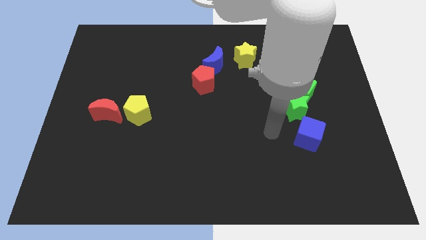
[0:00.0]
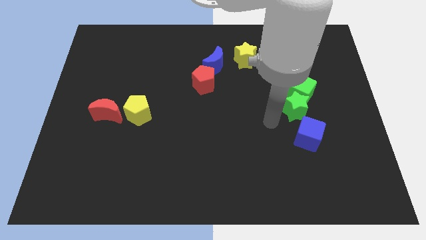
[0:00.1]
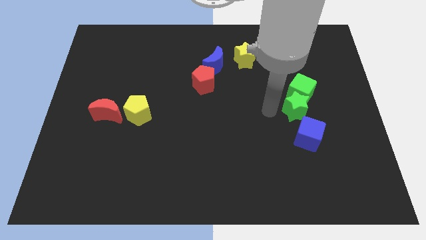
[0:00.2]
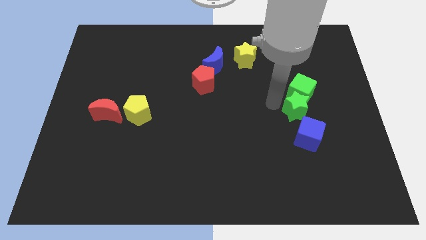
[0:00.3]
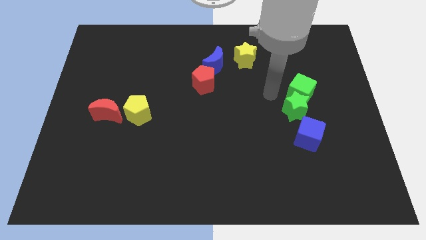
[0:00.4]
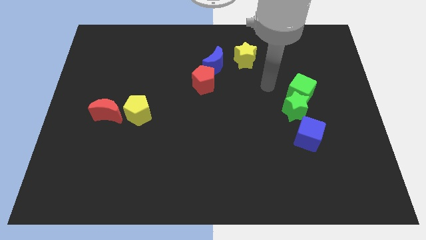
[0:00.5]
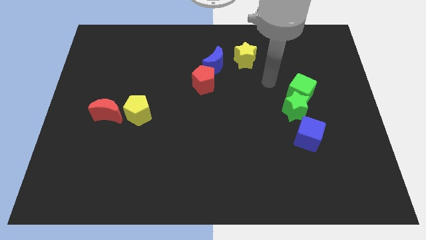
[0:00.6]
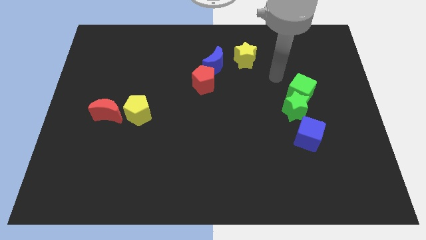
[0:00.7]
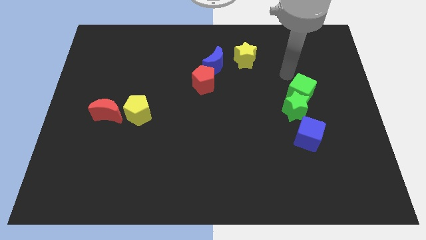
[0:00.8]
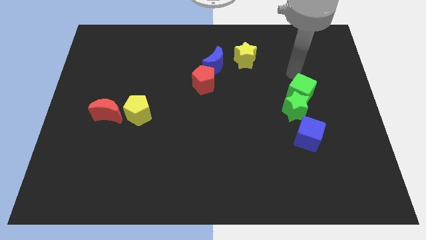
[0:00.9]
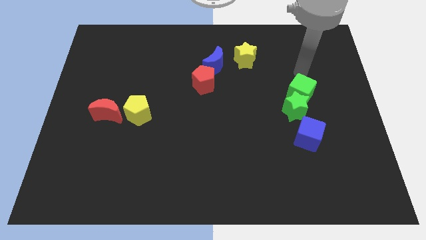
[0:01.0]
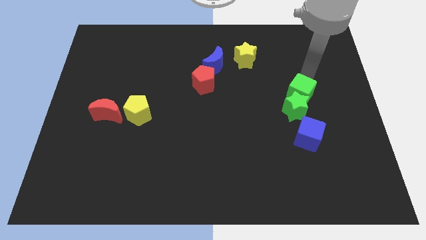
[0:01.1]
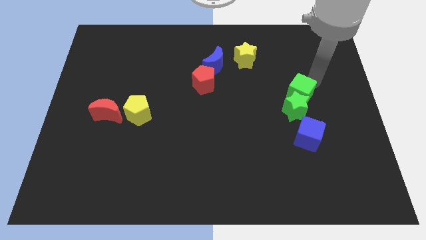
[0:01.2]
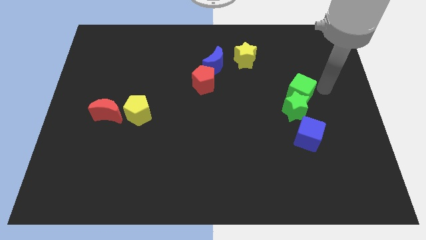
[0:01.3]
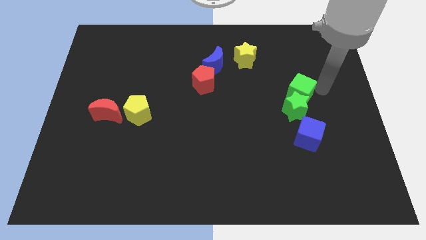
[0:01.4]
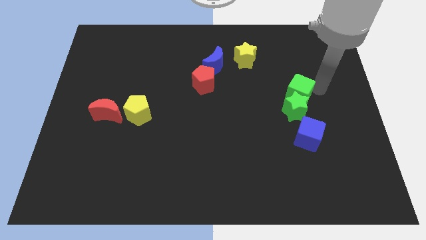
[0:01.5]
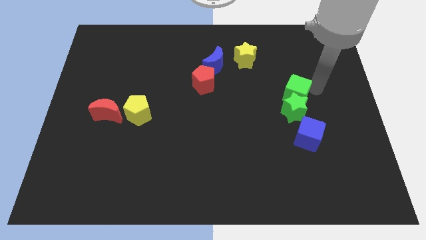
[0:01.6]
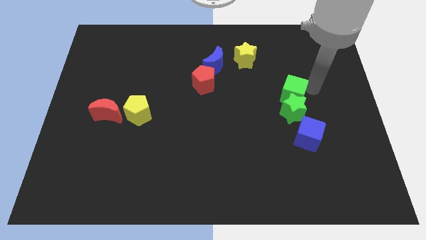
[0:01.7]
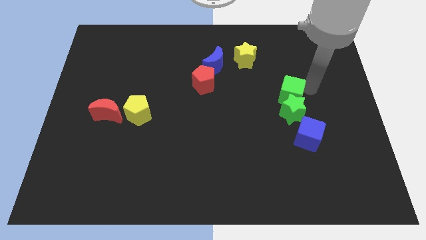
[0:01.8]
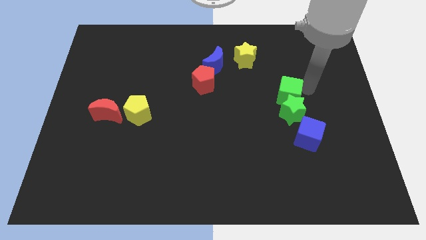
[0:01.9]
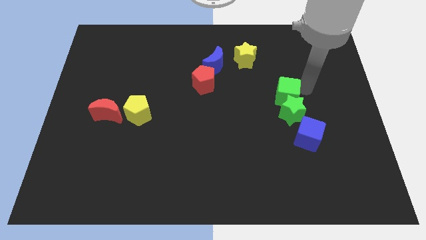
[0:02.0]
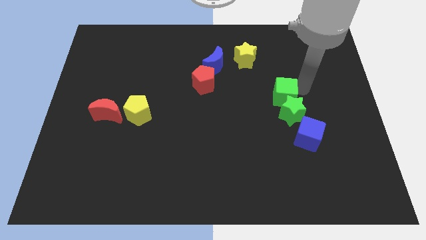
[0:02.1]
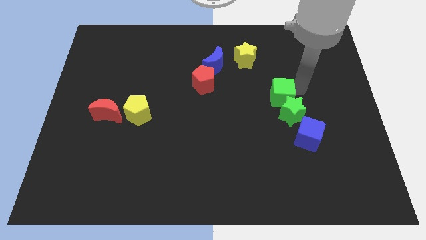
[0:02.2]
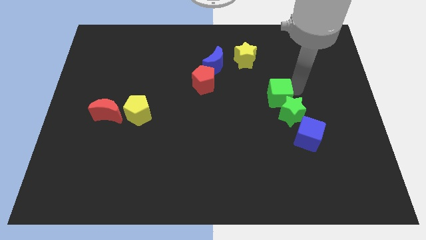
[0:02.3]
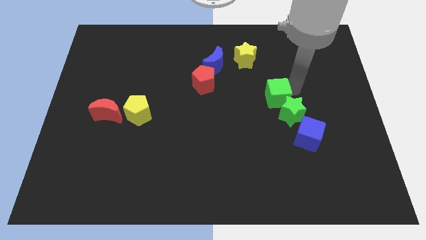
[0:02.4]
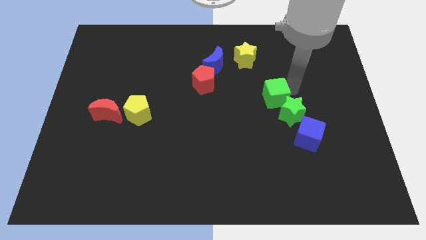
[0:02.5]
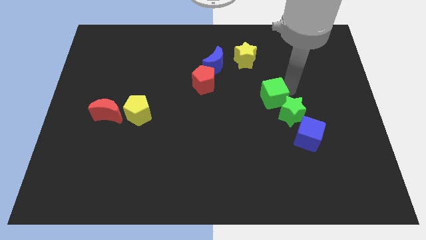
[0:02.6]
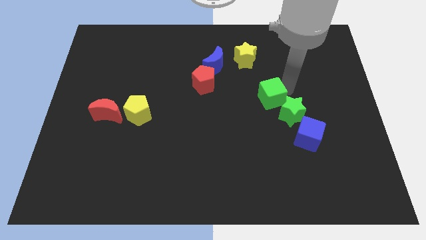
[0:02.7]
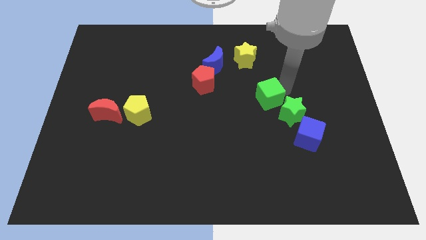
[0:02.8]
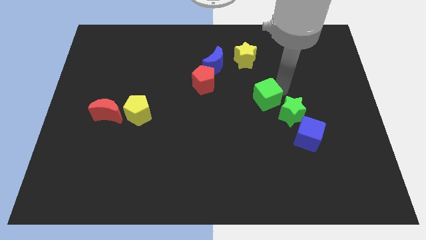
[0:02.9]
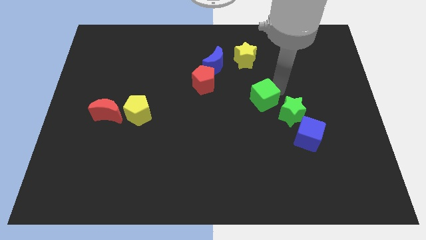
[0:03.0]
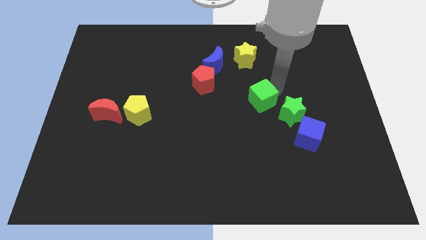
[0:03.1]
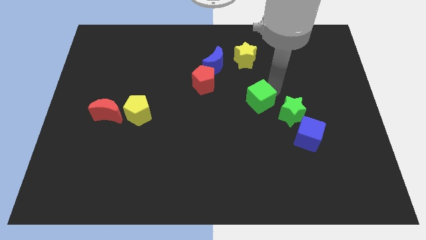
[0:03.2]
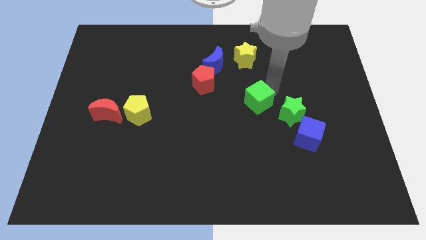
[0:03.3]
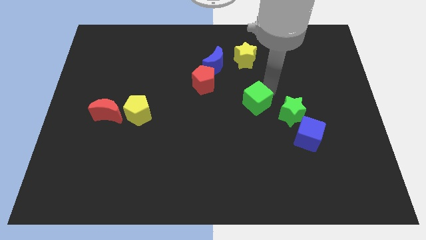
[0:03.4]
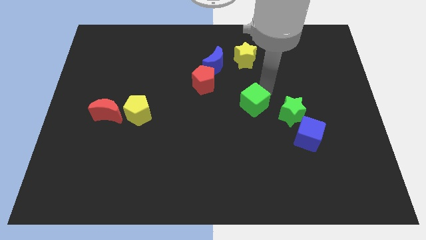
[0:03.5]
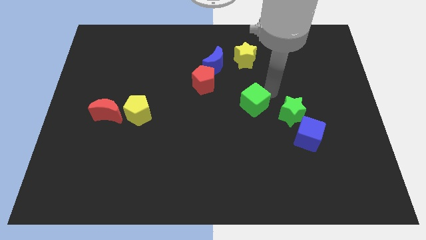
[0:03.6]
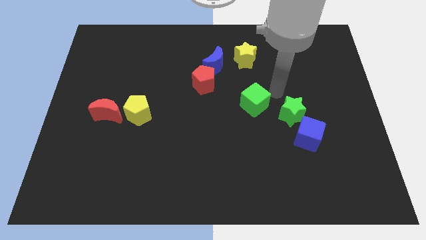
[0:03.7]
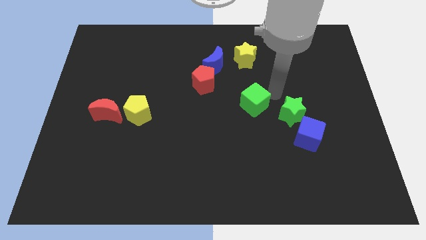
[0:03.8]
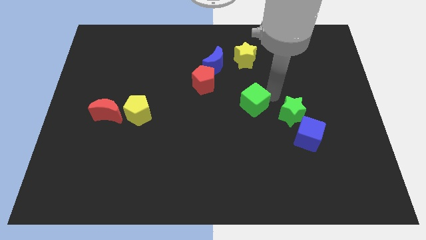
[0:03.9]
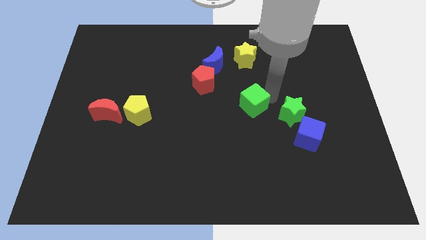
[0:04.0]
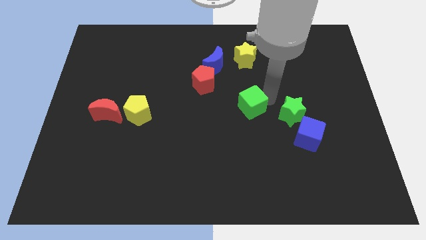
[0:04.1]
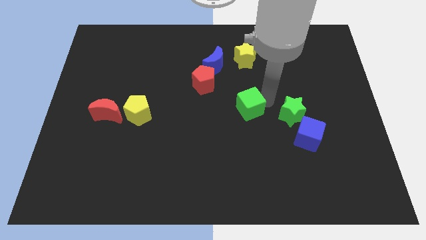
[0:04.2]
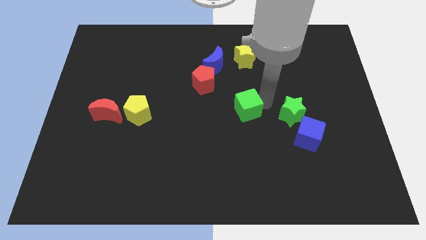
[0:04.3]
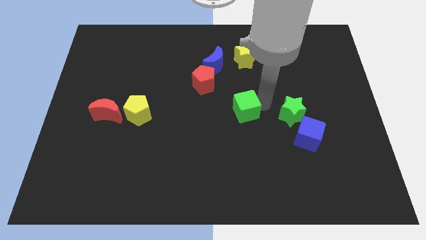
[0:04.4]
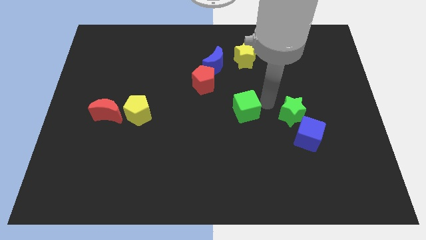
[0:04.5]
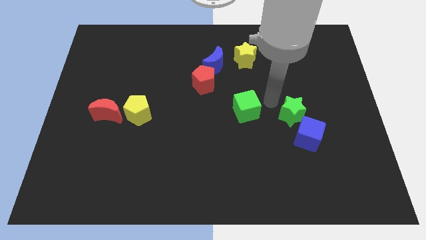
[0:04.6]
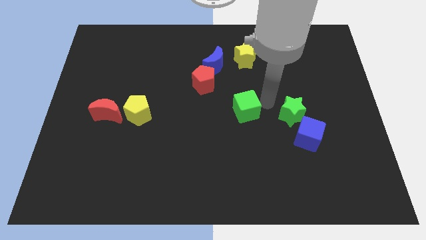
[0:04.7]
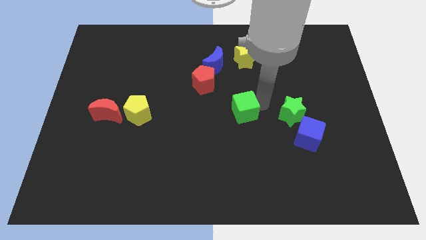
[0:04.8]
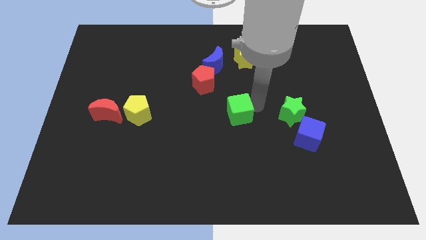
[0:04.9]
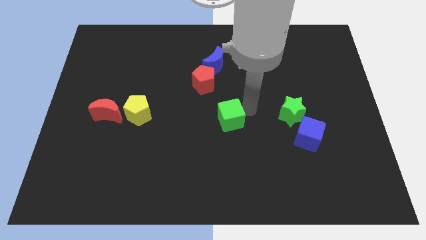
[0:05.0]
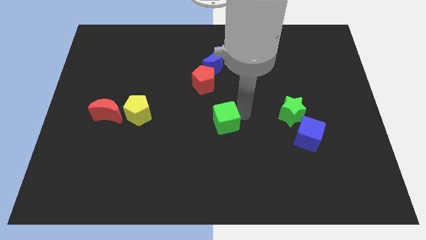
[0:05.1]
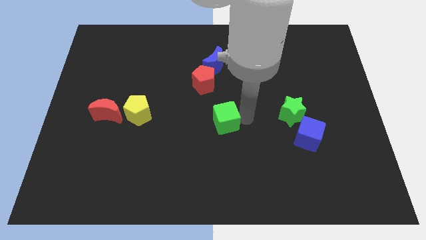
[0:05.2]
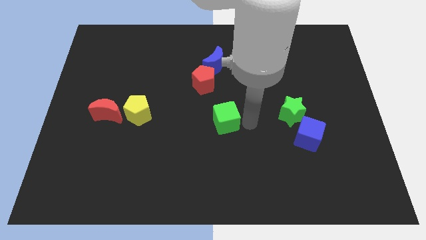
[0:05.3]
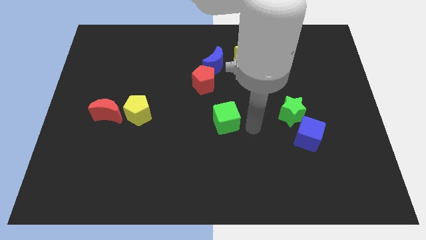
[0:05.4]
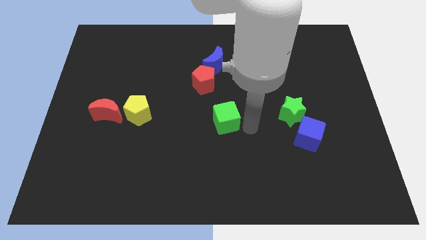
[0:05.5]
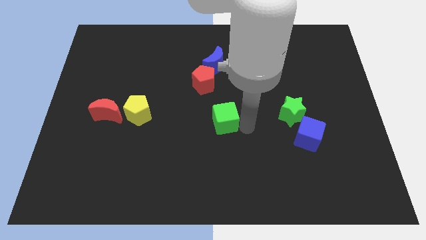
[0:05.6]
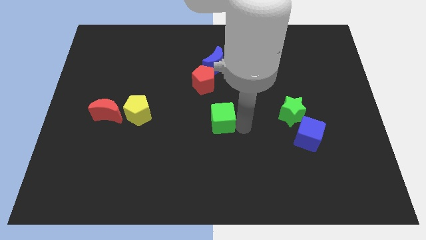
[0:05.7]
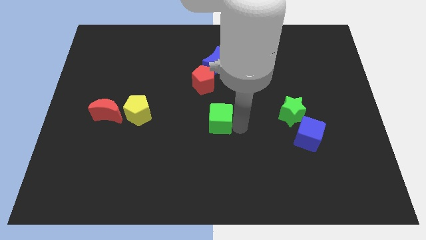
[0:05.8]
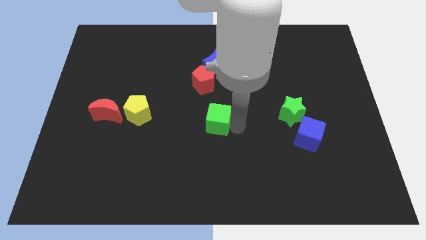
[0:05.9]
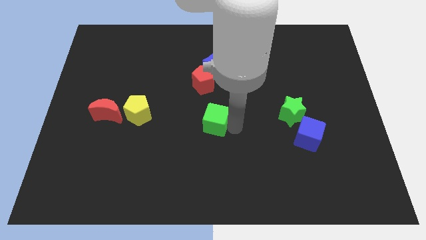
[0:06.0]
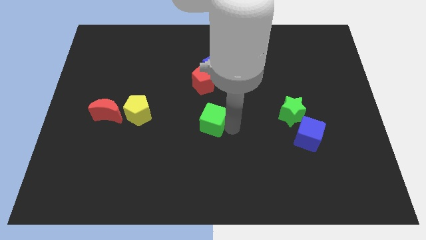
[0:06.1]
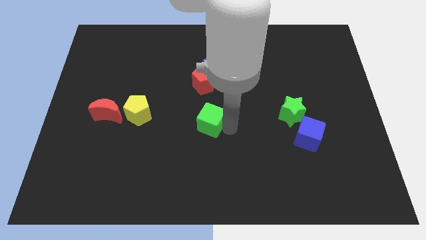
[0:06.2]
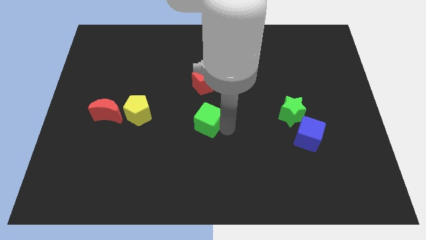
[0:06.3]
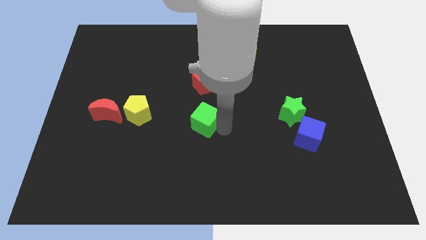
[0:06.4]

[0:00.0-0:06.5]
slide the green cube to the right side of the yellow pentagon

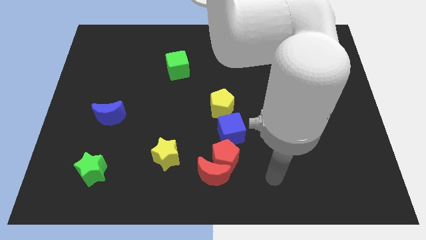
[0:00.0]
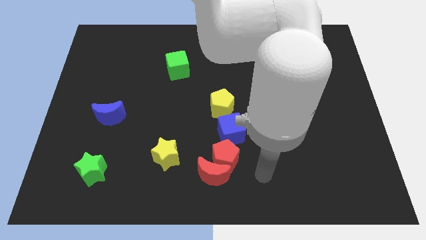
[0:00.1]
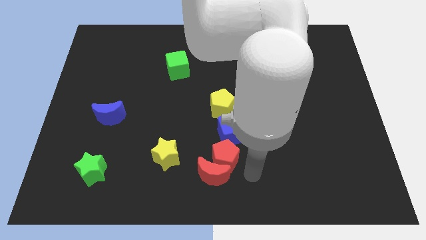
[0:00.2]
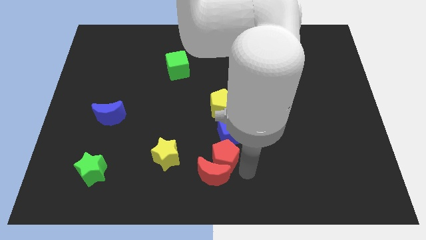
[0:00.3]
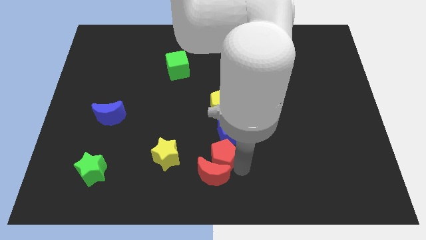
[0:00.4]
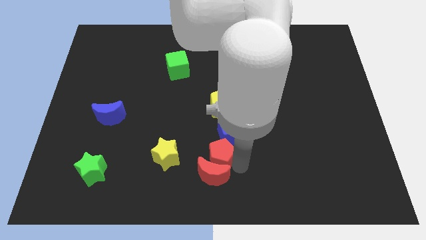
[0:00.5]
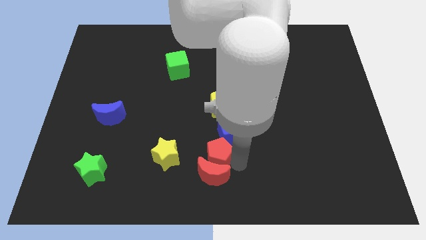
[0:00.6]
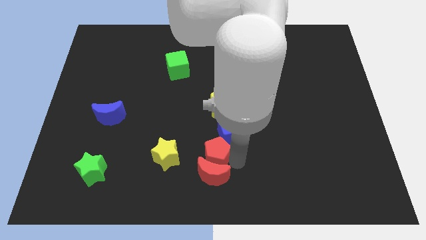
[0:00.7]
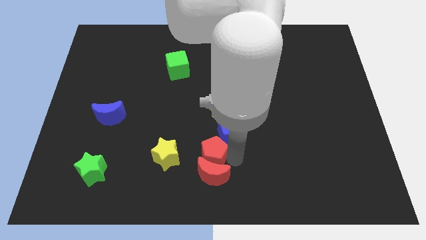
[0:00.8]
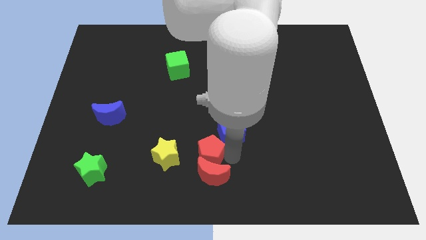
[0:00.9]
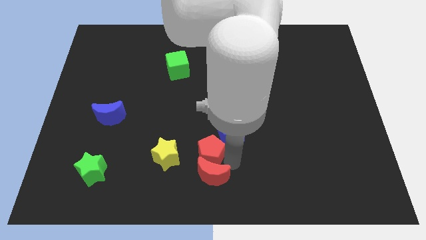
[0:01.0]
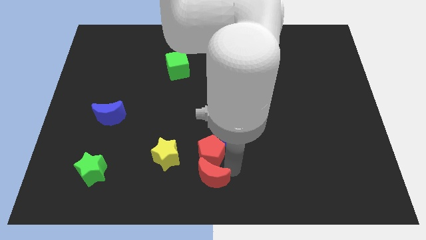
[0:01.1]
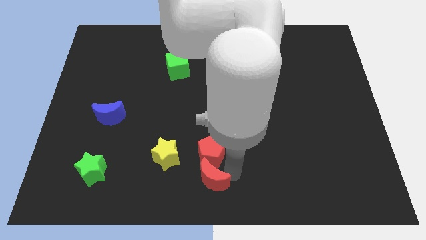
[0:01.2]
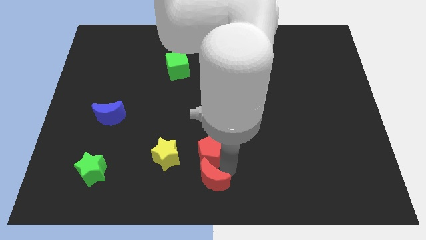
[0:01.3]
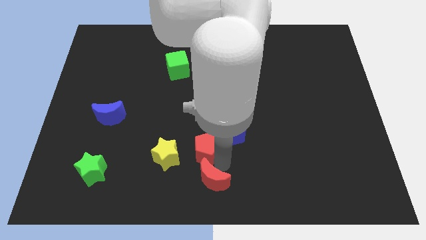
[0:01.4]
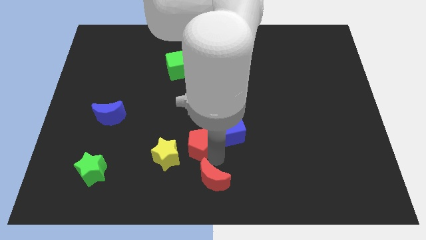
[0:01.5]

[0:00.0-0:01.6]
push the red pentagon diagonally up and to the right of the yellow star
